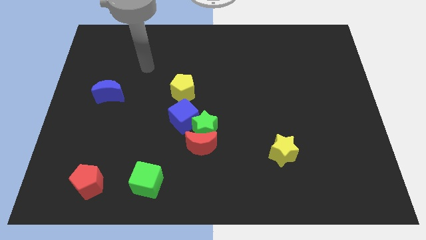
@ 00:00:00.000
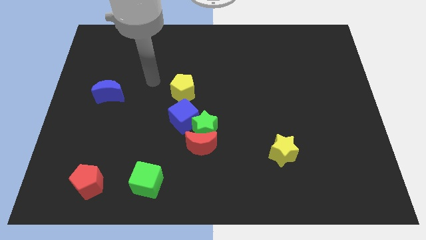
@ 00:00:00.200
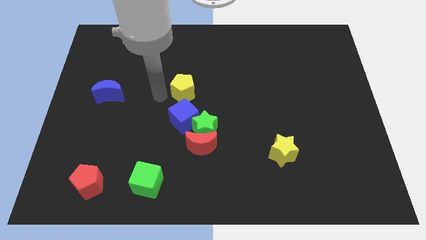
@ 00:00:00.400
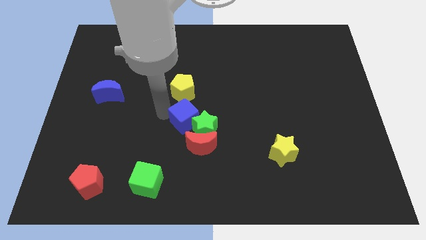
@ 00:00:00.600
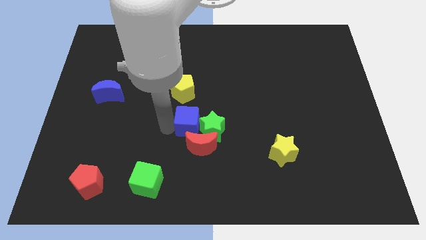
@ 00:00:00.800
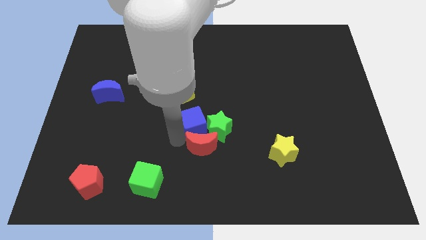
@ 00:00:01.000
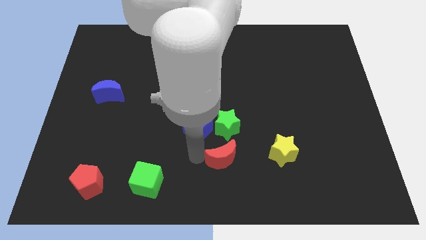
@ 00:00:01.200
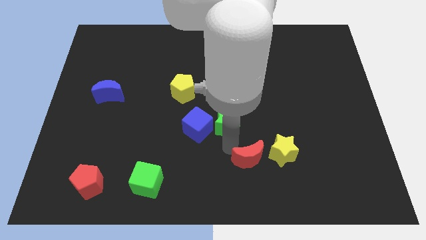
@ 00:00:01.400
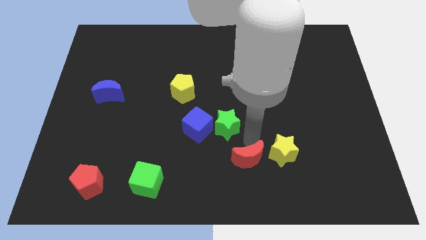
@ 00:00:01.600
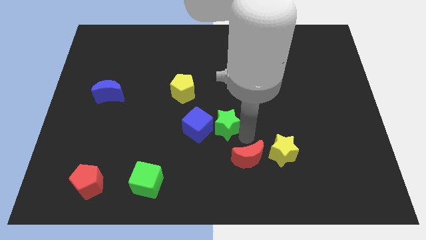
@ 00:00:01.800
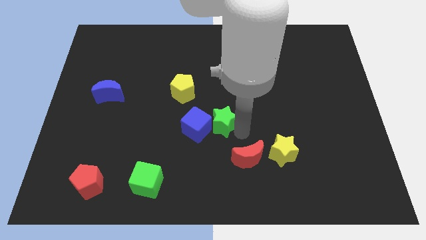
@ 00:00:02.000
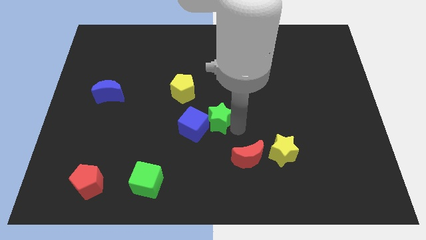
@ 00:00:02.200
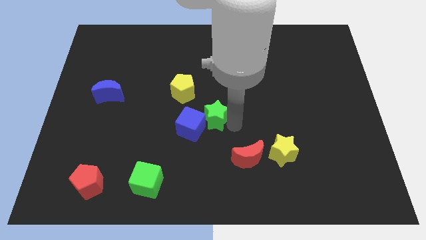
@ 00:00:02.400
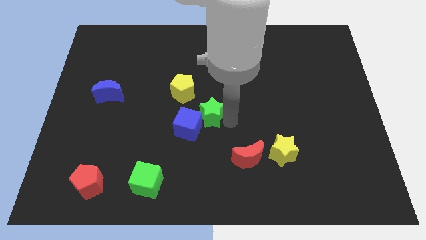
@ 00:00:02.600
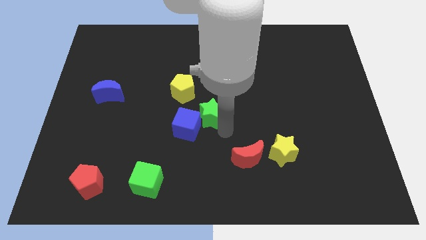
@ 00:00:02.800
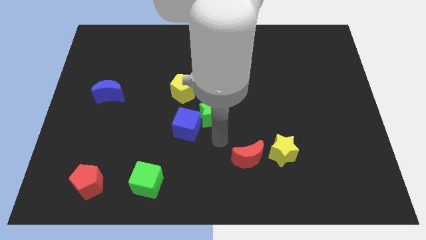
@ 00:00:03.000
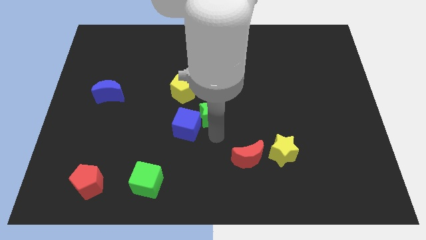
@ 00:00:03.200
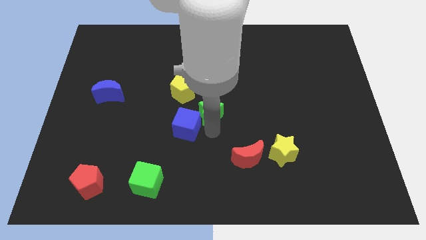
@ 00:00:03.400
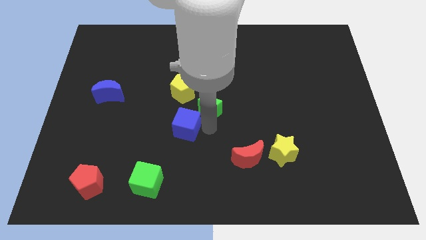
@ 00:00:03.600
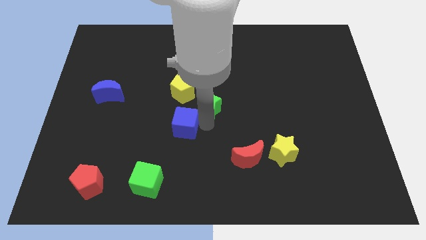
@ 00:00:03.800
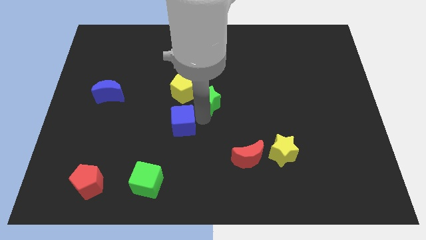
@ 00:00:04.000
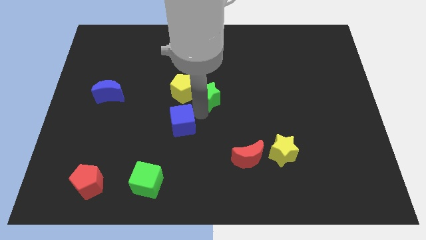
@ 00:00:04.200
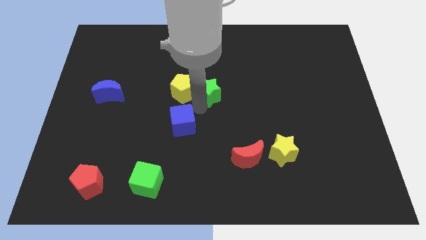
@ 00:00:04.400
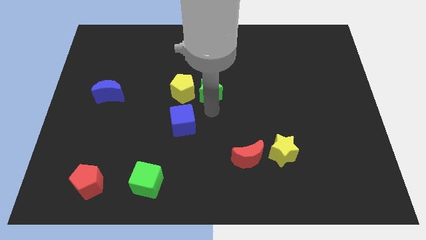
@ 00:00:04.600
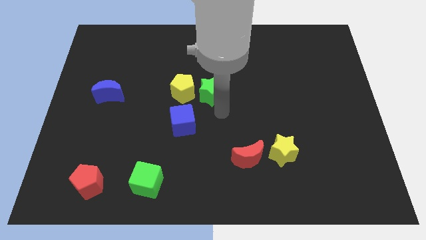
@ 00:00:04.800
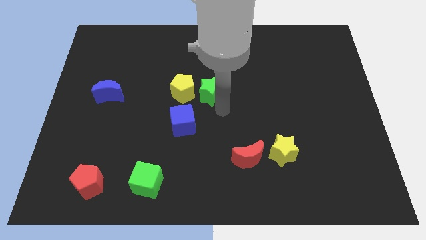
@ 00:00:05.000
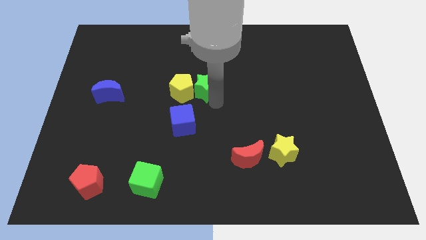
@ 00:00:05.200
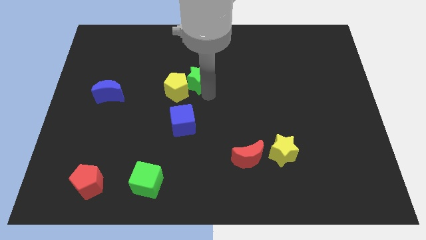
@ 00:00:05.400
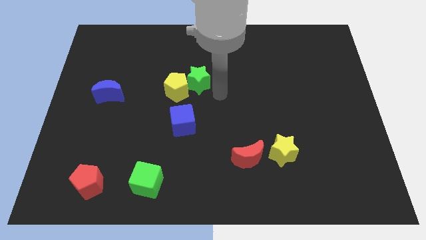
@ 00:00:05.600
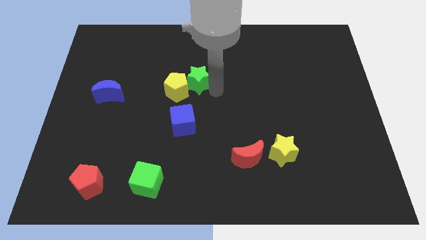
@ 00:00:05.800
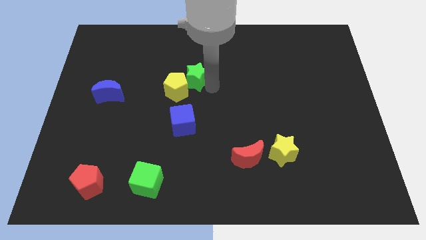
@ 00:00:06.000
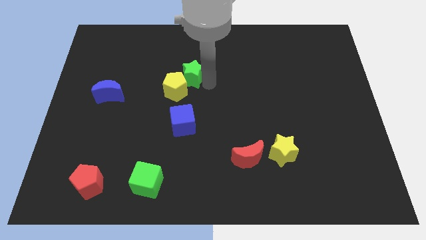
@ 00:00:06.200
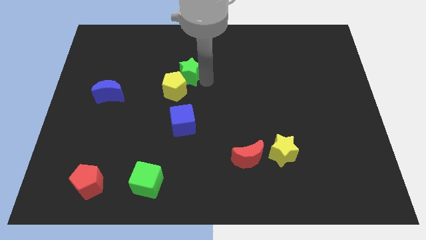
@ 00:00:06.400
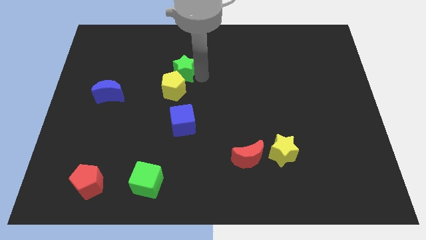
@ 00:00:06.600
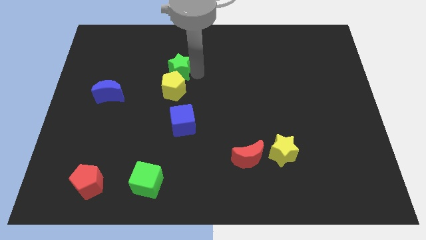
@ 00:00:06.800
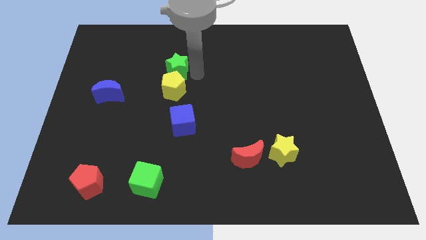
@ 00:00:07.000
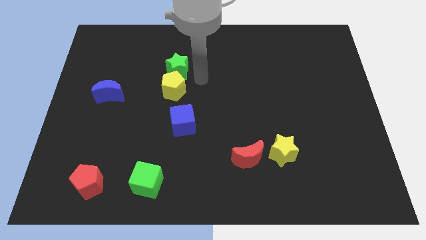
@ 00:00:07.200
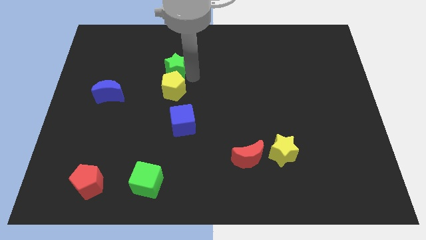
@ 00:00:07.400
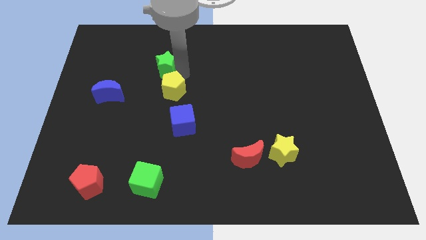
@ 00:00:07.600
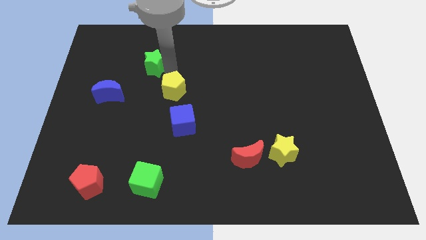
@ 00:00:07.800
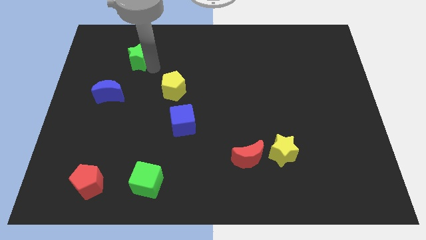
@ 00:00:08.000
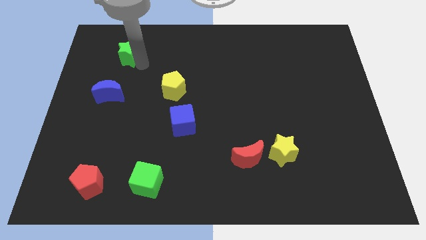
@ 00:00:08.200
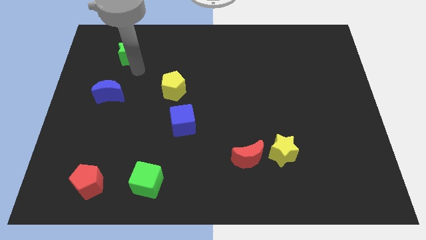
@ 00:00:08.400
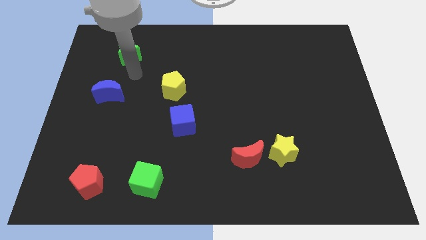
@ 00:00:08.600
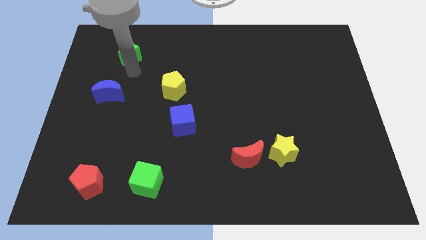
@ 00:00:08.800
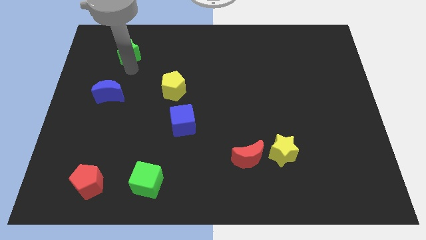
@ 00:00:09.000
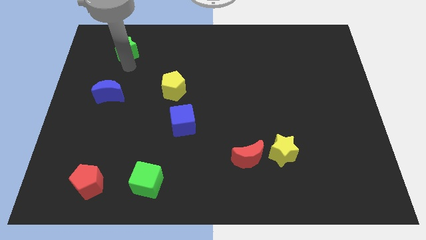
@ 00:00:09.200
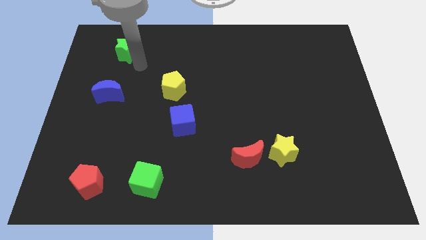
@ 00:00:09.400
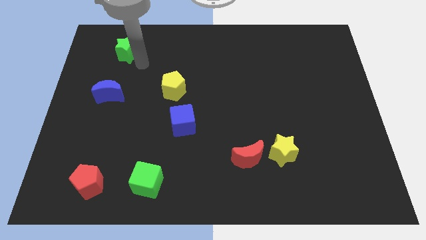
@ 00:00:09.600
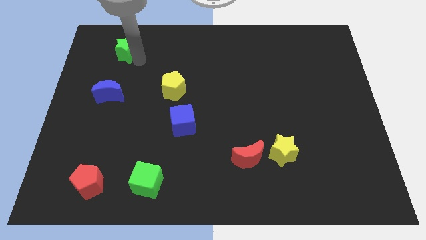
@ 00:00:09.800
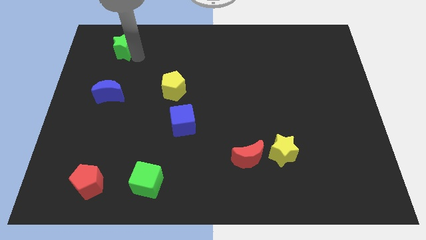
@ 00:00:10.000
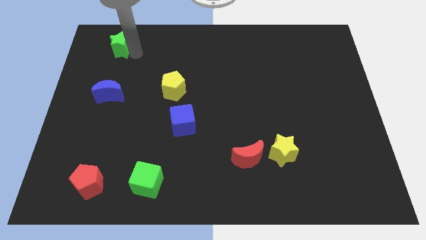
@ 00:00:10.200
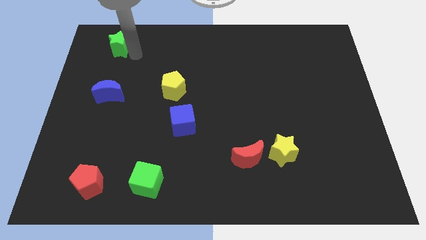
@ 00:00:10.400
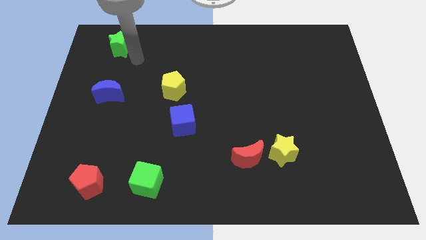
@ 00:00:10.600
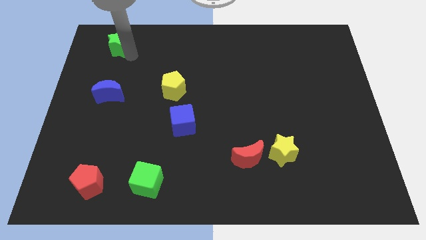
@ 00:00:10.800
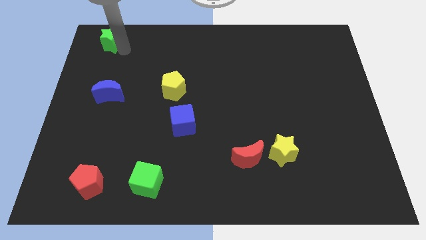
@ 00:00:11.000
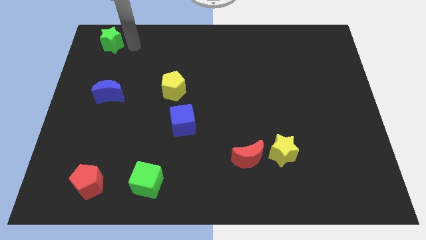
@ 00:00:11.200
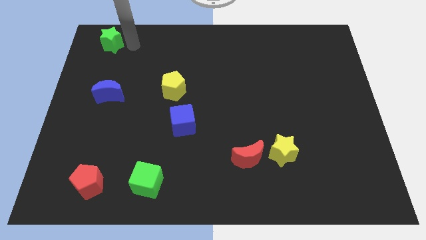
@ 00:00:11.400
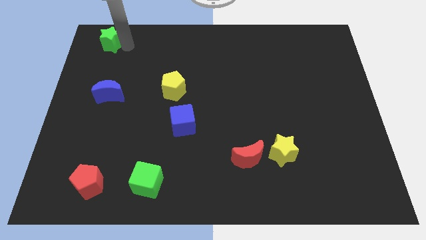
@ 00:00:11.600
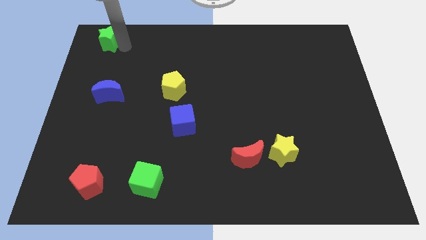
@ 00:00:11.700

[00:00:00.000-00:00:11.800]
slide the green star to the top left of the board
